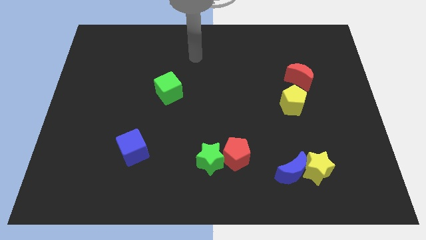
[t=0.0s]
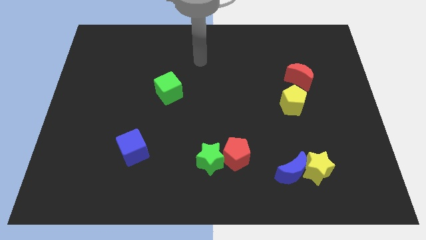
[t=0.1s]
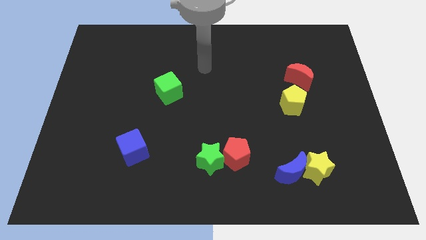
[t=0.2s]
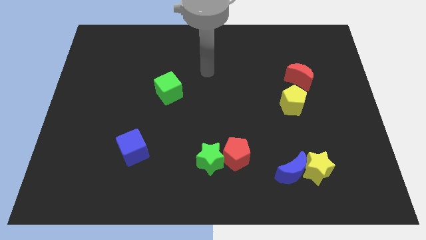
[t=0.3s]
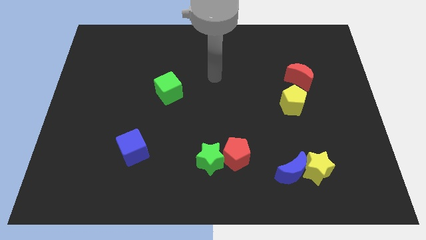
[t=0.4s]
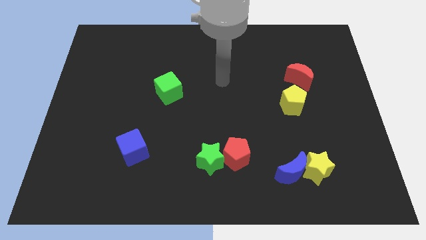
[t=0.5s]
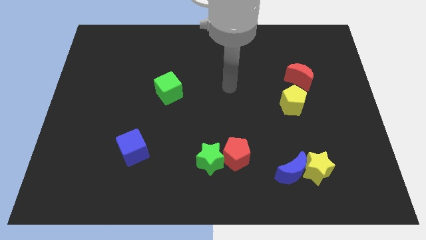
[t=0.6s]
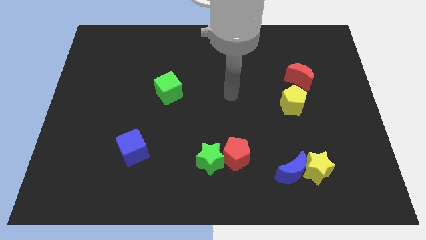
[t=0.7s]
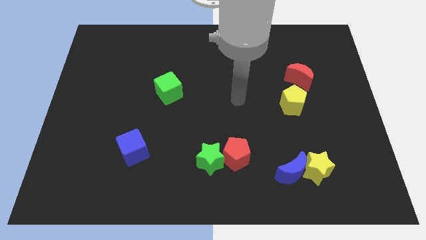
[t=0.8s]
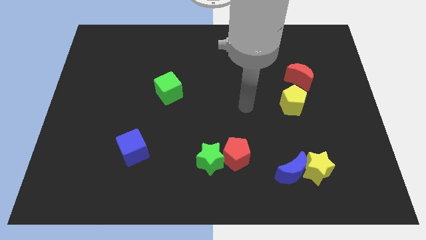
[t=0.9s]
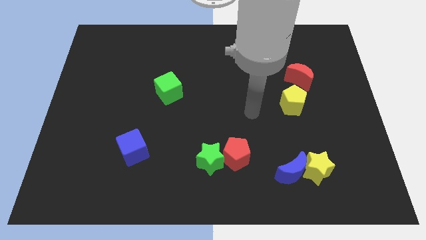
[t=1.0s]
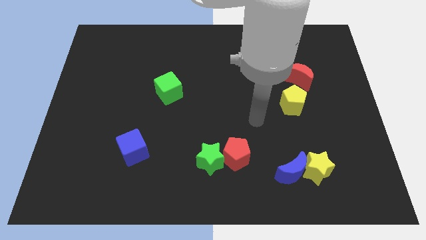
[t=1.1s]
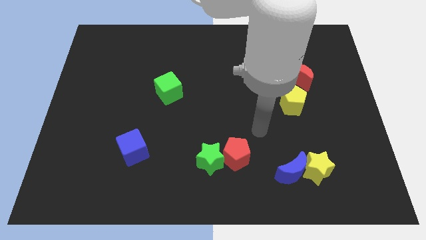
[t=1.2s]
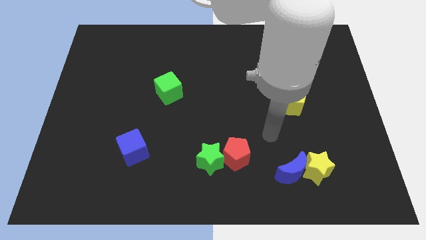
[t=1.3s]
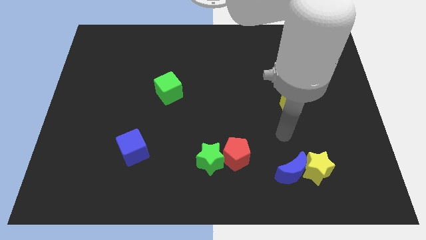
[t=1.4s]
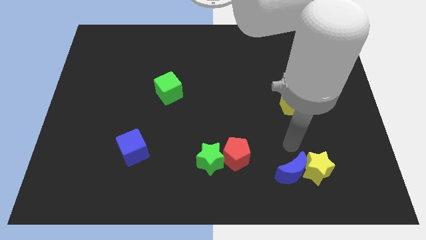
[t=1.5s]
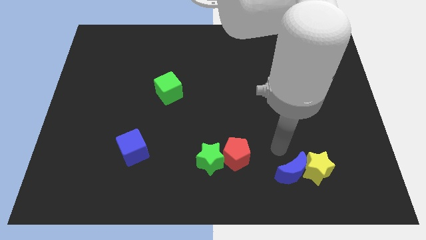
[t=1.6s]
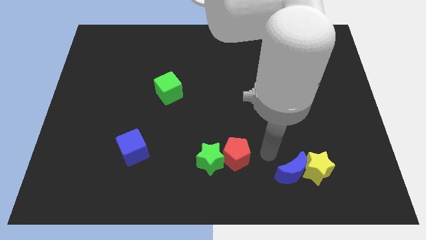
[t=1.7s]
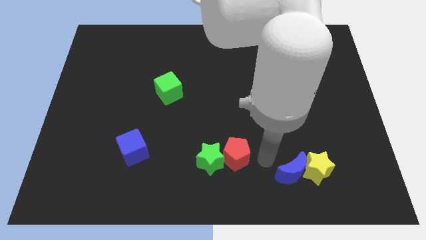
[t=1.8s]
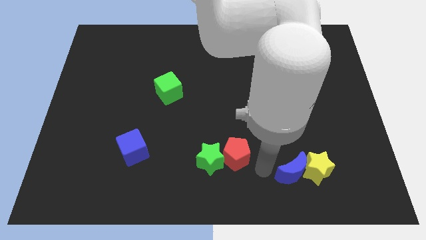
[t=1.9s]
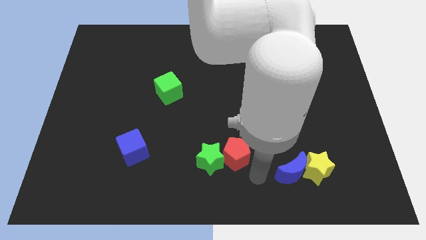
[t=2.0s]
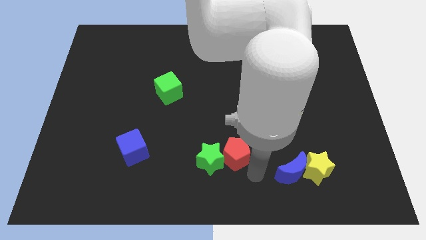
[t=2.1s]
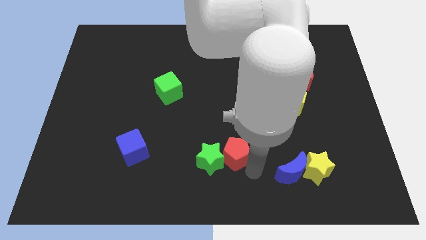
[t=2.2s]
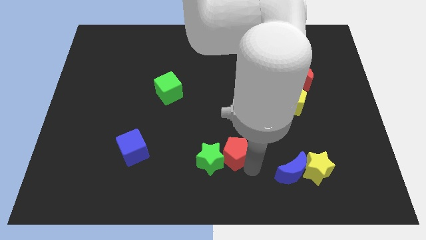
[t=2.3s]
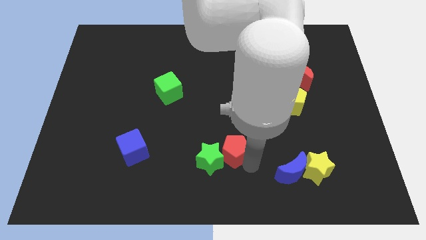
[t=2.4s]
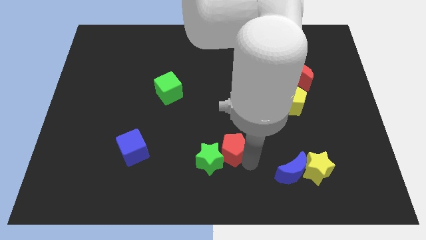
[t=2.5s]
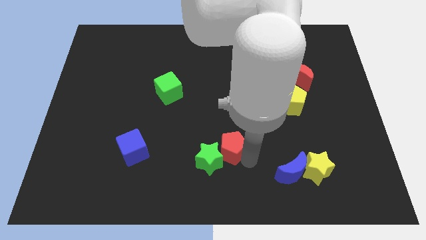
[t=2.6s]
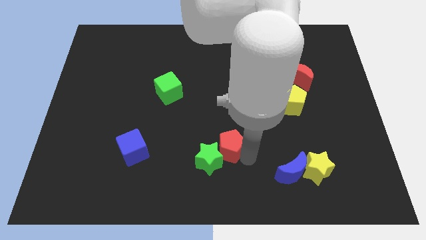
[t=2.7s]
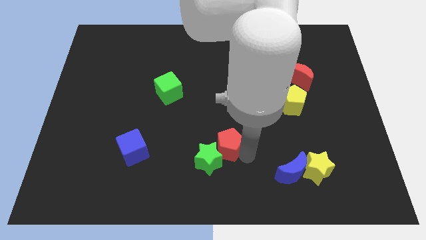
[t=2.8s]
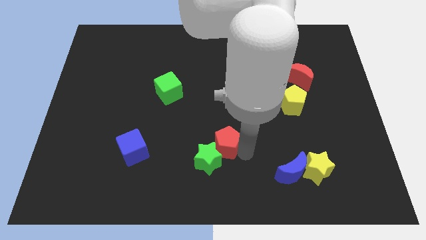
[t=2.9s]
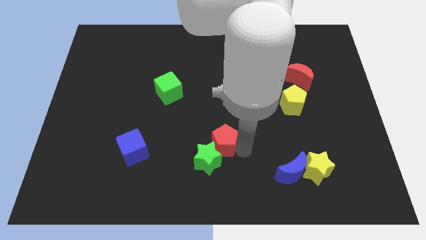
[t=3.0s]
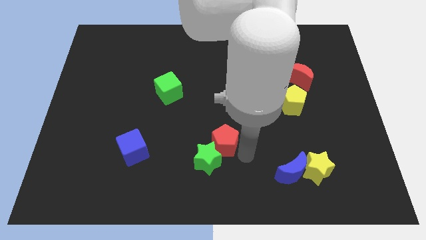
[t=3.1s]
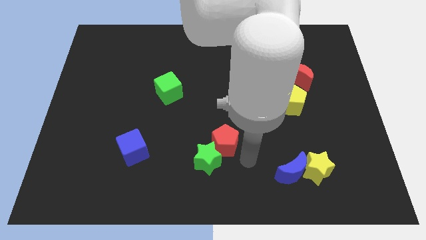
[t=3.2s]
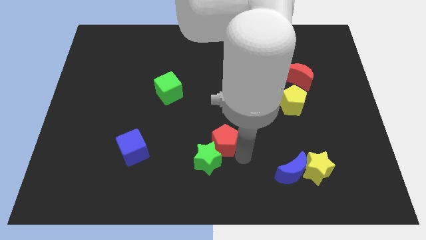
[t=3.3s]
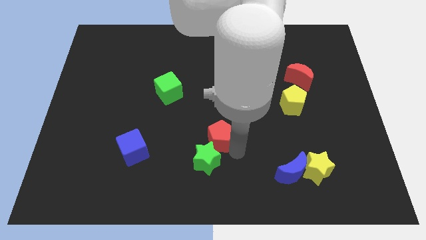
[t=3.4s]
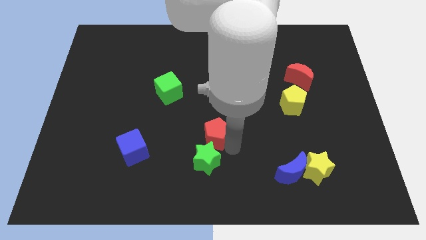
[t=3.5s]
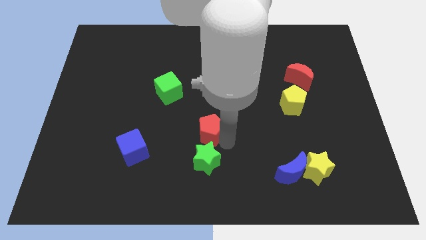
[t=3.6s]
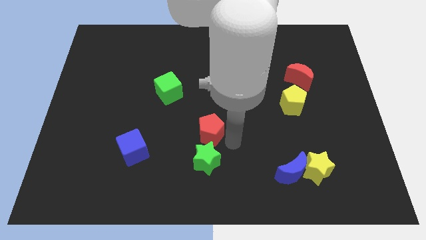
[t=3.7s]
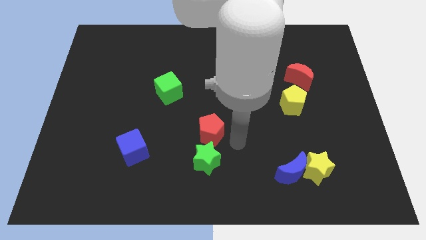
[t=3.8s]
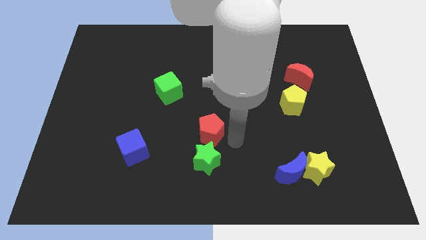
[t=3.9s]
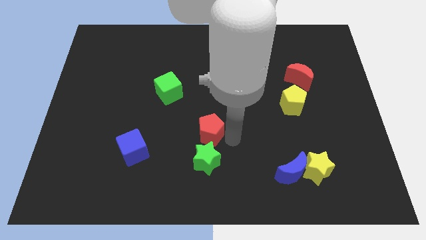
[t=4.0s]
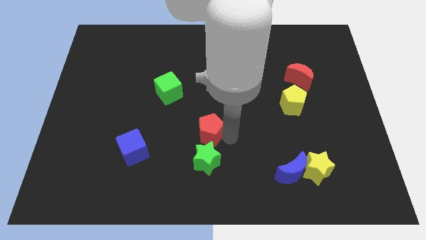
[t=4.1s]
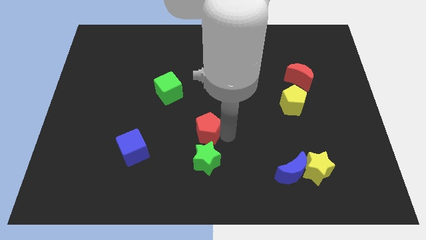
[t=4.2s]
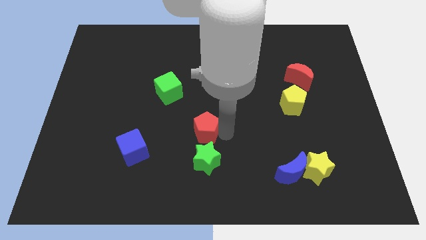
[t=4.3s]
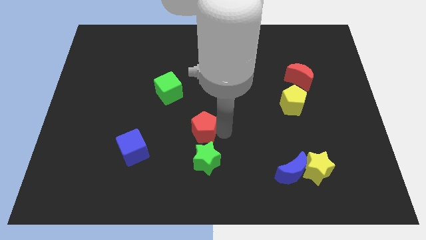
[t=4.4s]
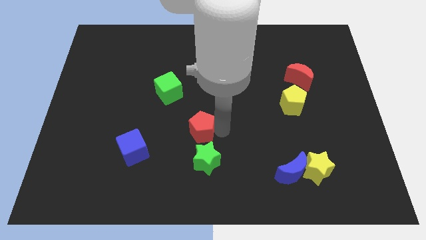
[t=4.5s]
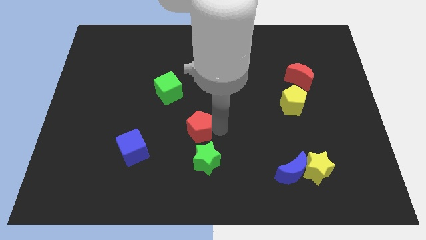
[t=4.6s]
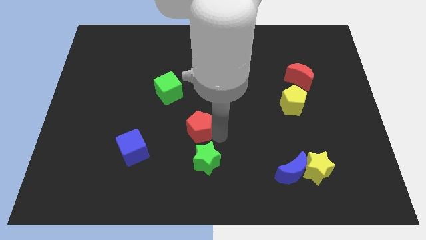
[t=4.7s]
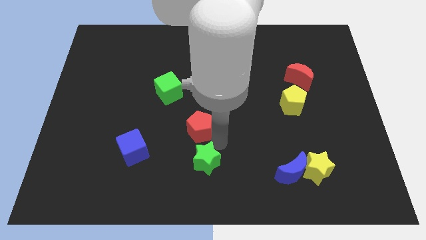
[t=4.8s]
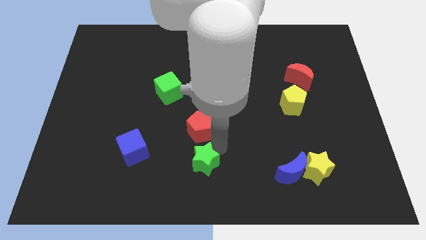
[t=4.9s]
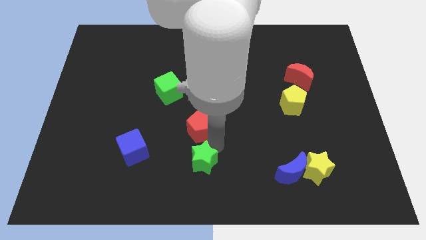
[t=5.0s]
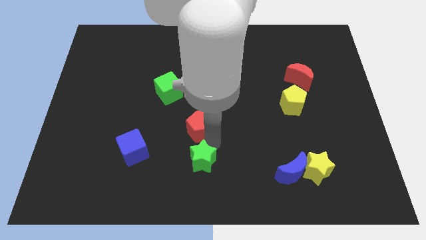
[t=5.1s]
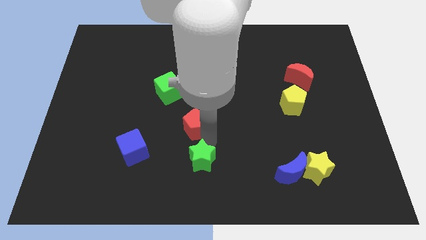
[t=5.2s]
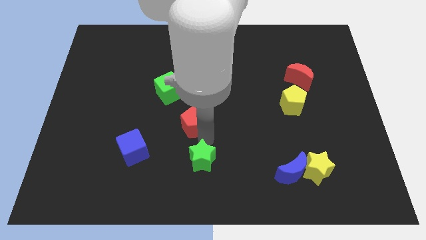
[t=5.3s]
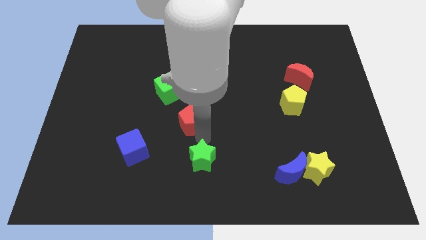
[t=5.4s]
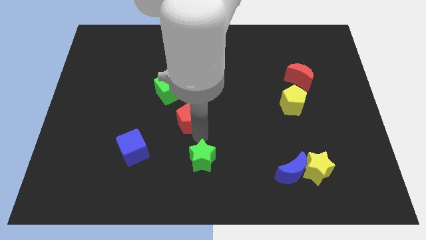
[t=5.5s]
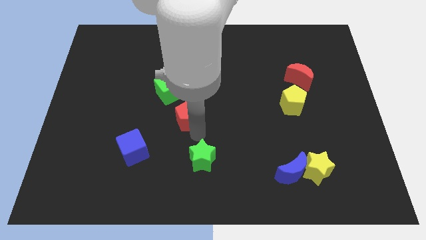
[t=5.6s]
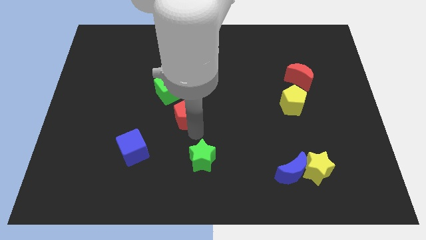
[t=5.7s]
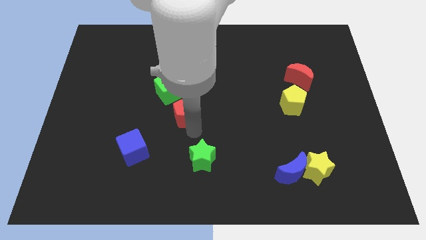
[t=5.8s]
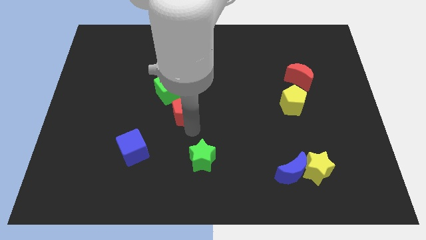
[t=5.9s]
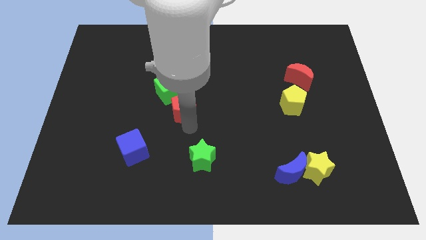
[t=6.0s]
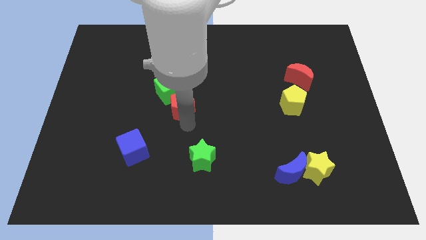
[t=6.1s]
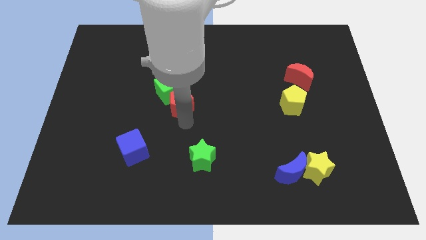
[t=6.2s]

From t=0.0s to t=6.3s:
push the red pentagon to the green cube

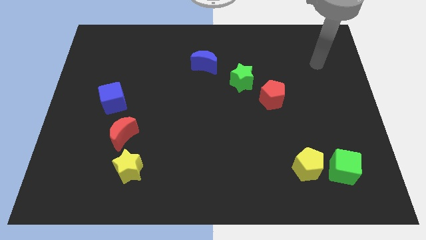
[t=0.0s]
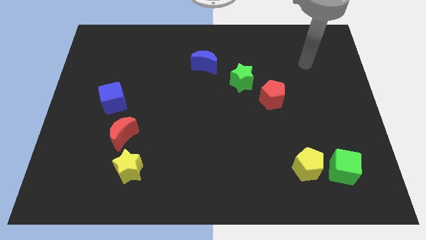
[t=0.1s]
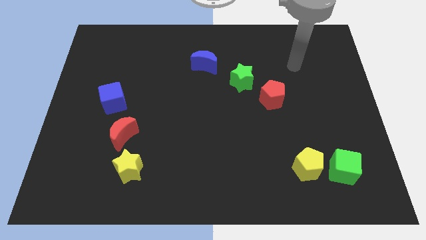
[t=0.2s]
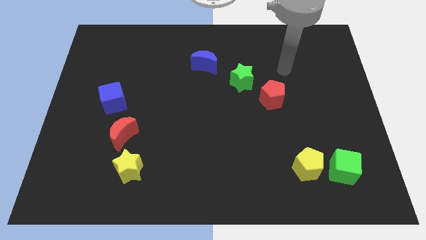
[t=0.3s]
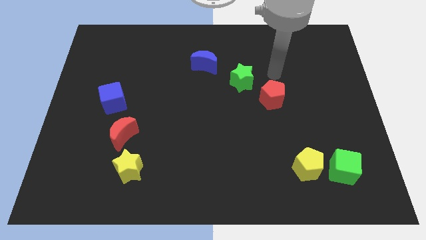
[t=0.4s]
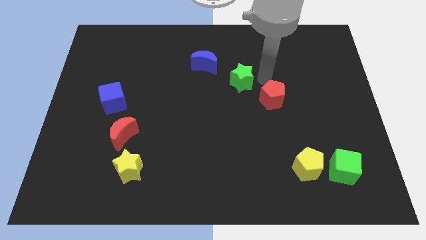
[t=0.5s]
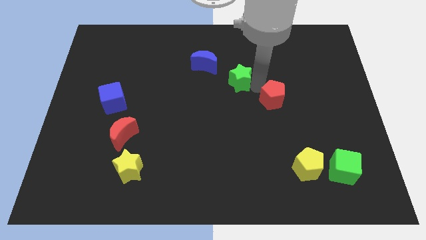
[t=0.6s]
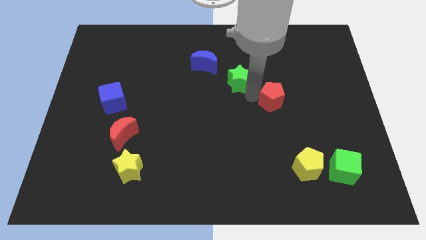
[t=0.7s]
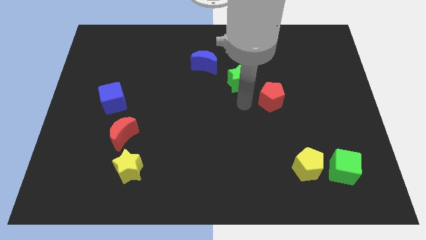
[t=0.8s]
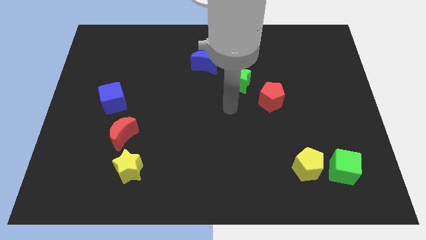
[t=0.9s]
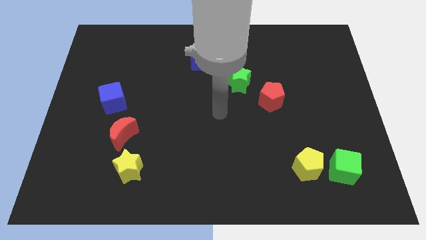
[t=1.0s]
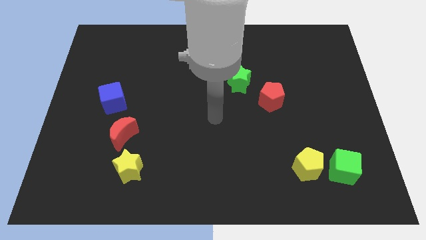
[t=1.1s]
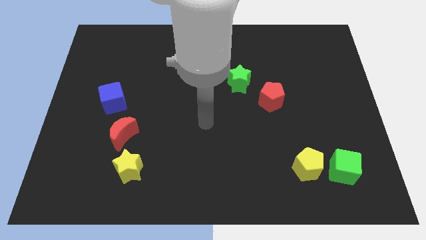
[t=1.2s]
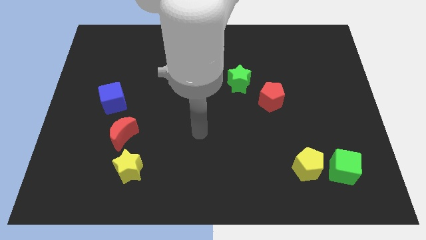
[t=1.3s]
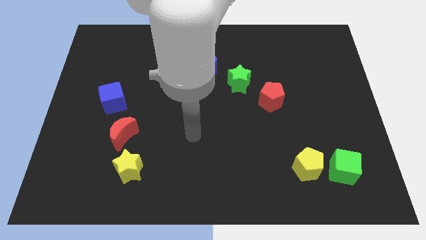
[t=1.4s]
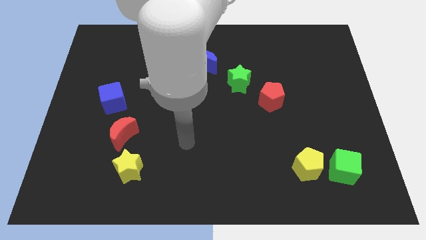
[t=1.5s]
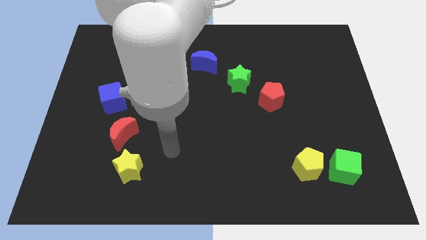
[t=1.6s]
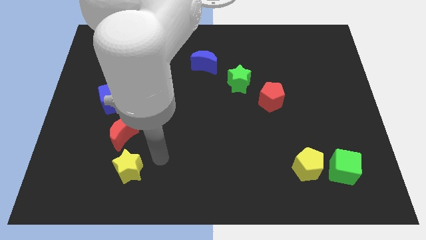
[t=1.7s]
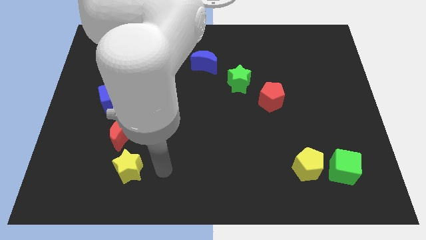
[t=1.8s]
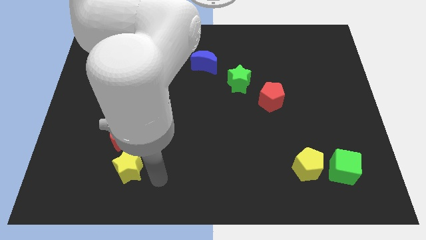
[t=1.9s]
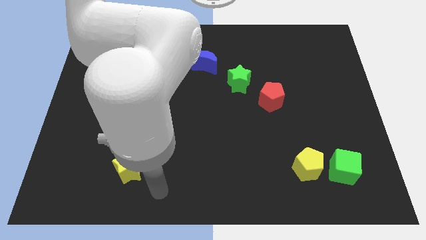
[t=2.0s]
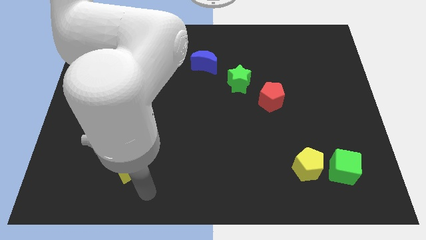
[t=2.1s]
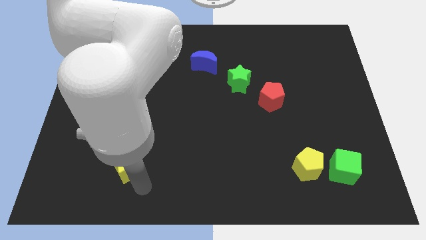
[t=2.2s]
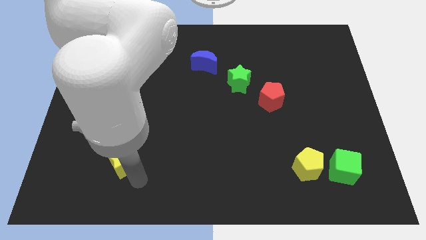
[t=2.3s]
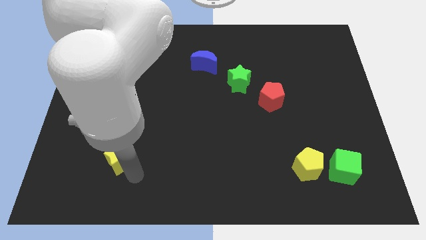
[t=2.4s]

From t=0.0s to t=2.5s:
put the yellow star towards the red moon
